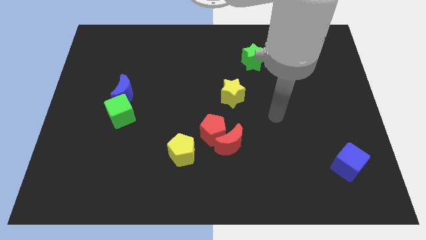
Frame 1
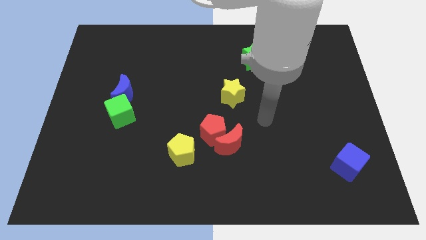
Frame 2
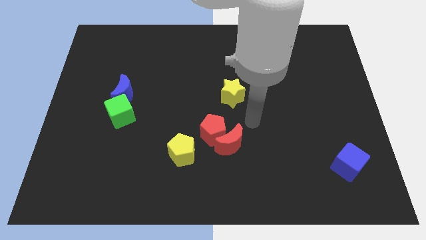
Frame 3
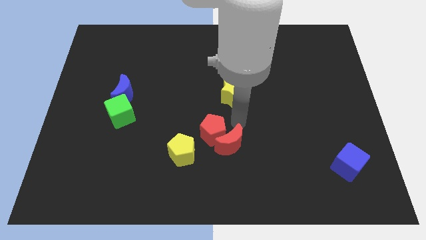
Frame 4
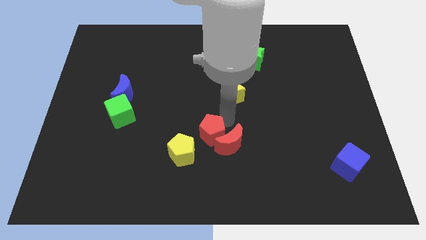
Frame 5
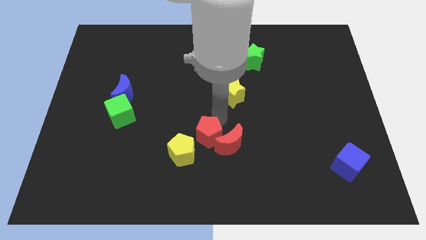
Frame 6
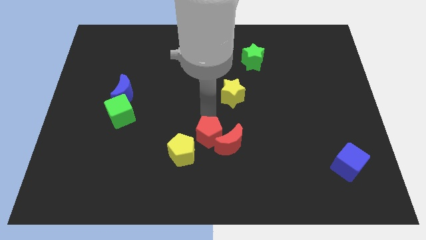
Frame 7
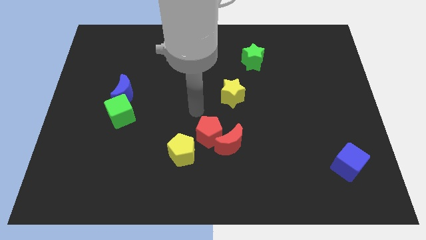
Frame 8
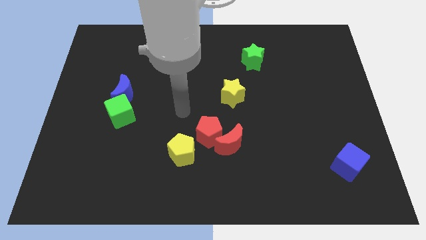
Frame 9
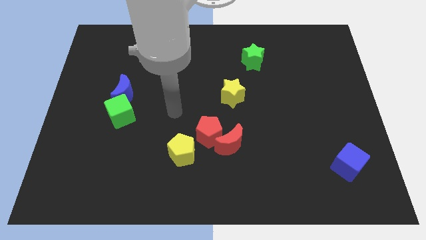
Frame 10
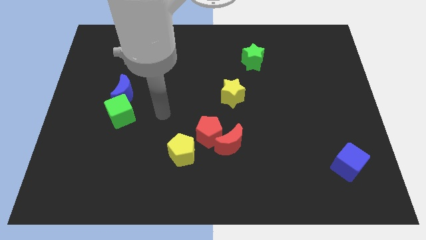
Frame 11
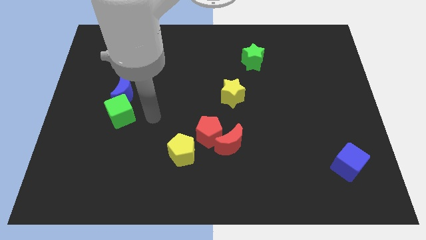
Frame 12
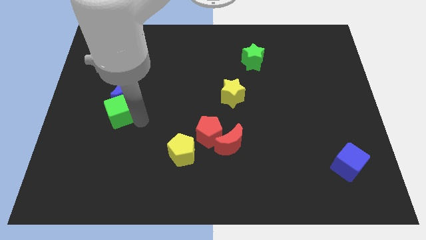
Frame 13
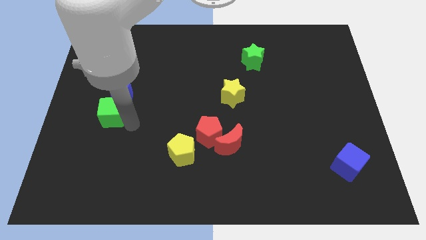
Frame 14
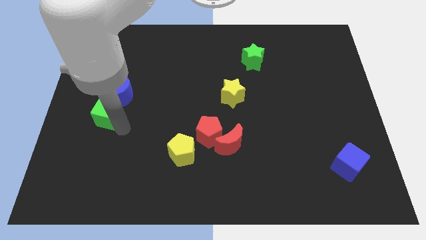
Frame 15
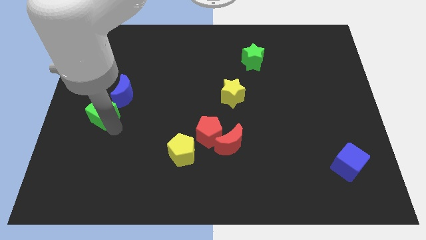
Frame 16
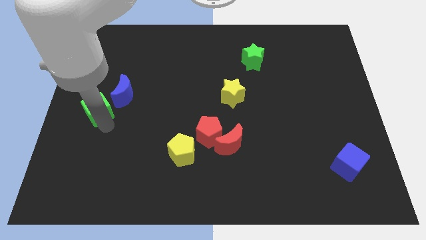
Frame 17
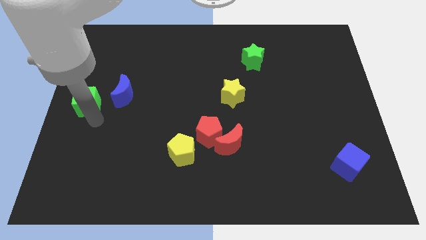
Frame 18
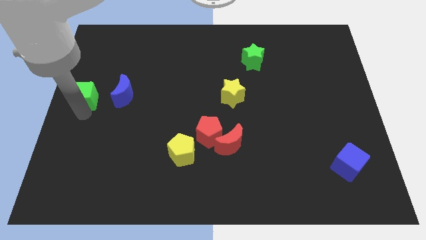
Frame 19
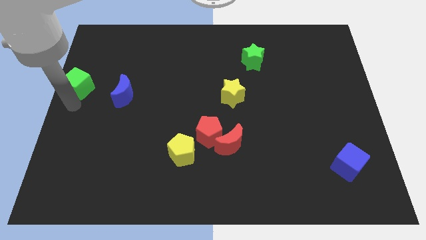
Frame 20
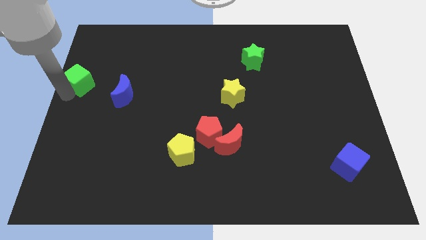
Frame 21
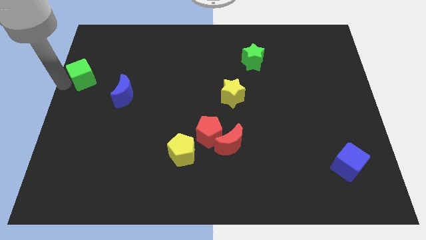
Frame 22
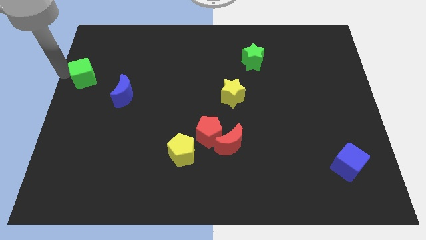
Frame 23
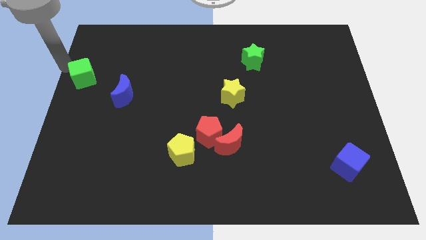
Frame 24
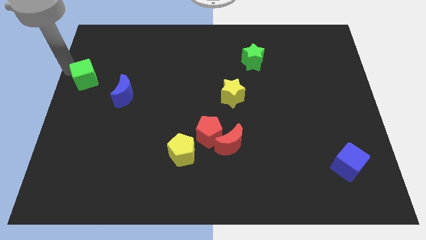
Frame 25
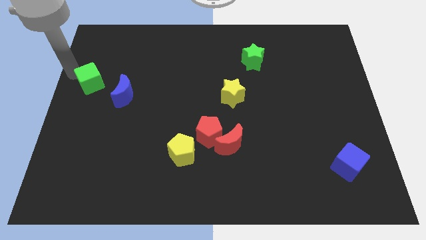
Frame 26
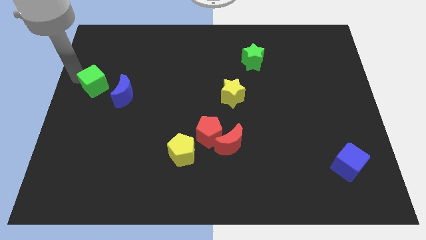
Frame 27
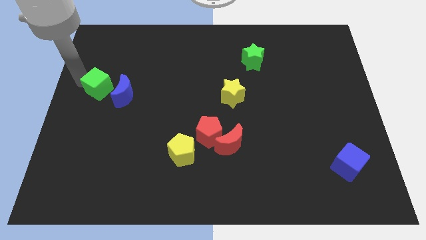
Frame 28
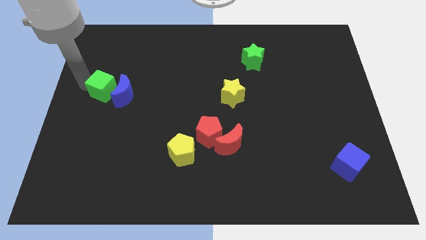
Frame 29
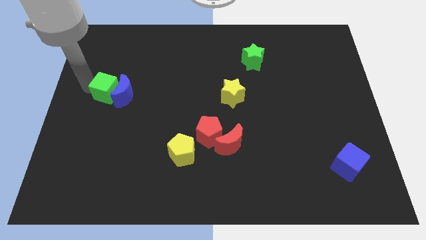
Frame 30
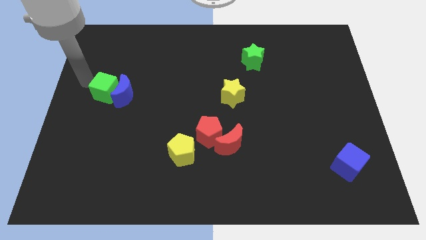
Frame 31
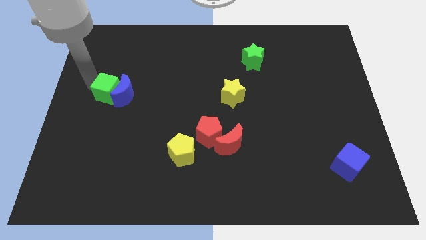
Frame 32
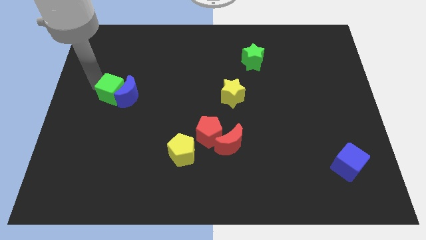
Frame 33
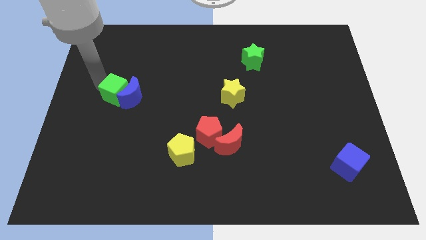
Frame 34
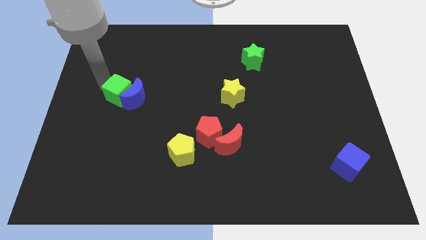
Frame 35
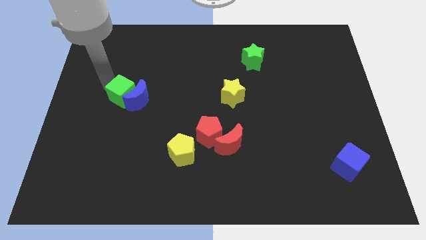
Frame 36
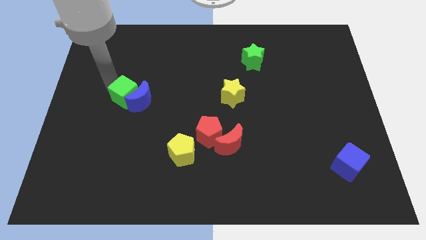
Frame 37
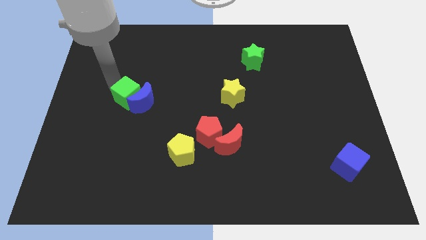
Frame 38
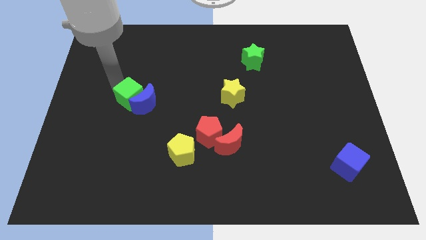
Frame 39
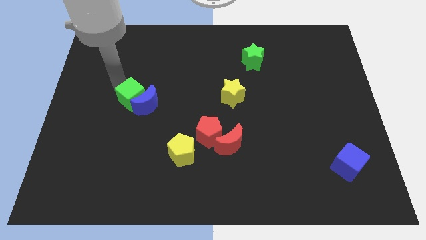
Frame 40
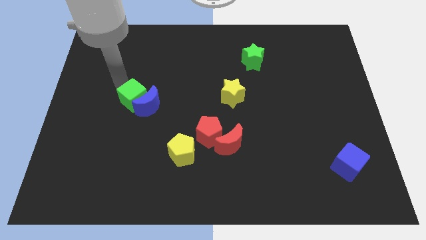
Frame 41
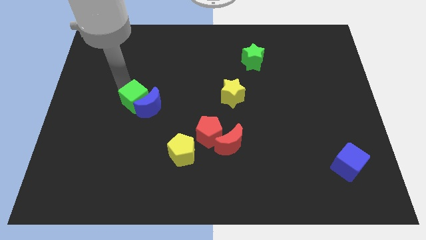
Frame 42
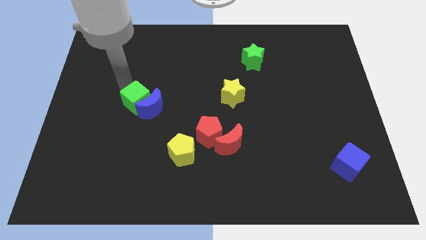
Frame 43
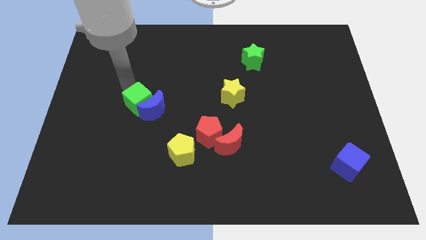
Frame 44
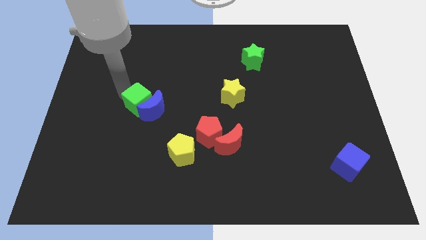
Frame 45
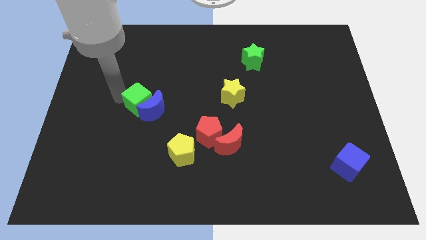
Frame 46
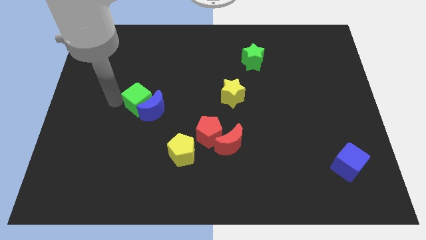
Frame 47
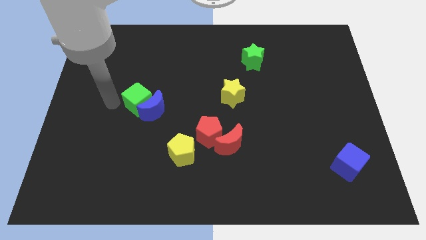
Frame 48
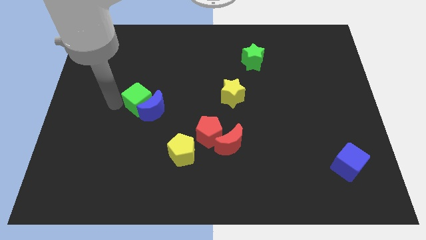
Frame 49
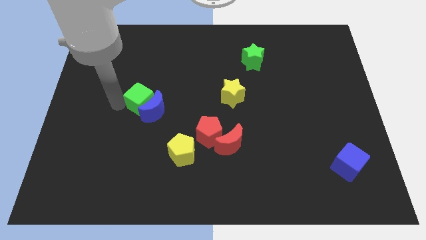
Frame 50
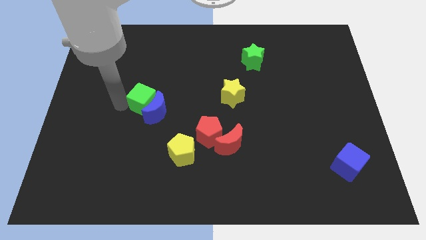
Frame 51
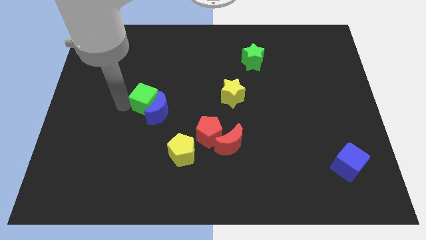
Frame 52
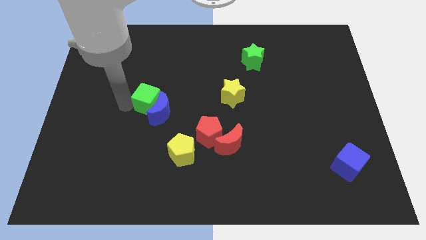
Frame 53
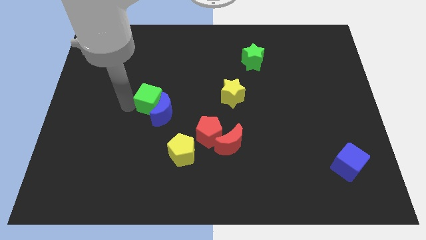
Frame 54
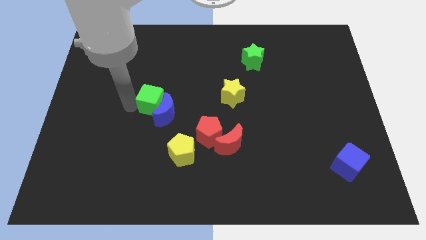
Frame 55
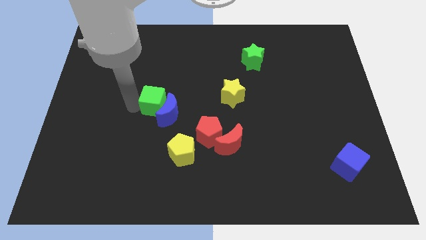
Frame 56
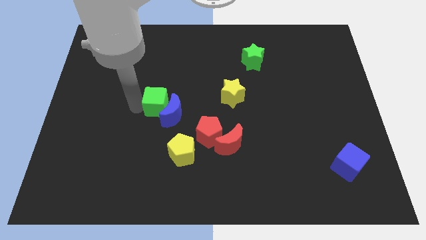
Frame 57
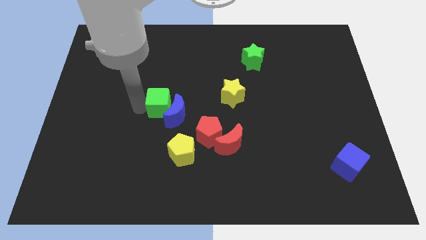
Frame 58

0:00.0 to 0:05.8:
slide the green cube to the middle

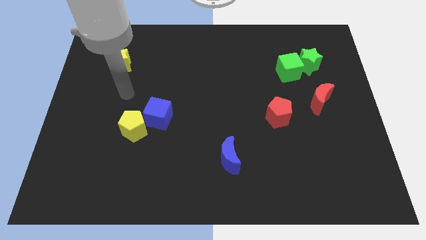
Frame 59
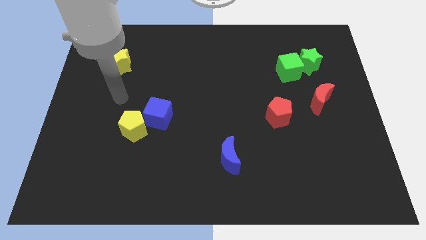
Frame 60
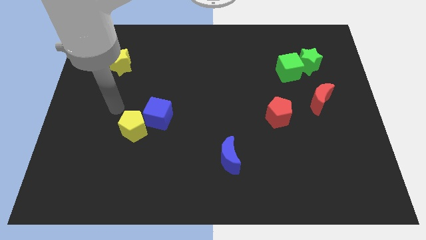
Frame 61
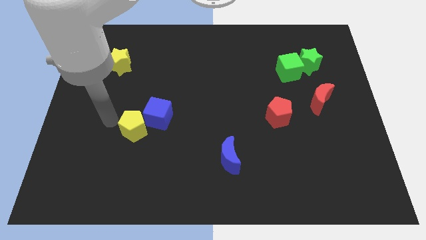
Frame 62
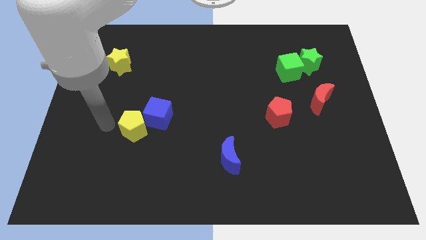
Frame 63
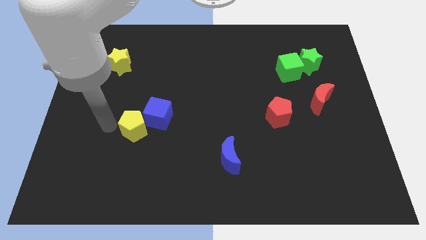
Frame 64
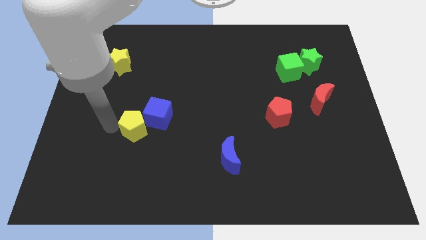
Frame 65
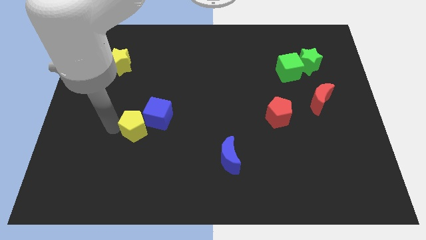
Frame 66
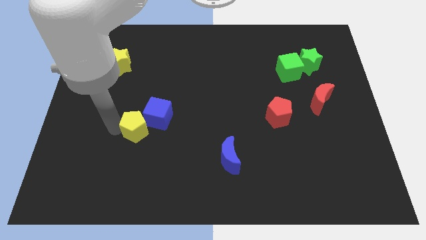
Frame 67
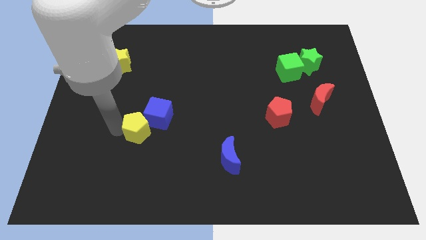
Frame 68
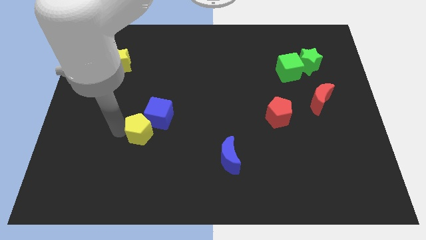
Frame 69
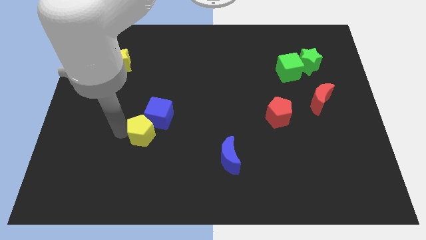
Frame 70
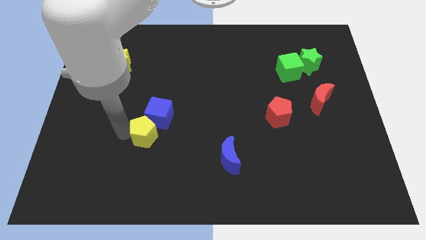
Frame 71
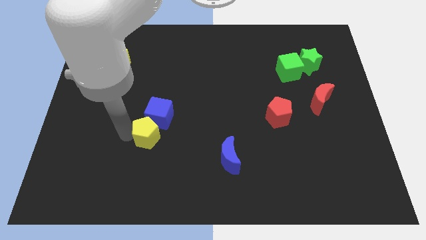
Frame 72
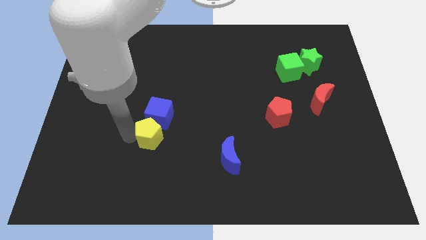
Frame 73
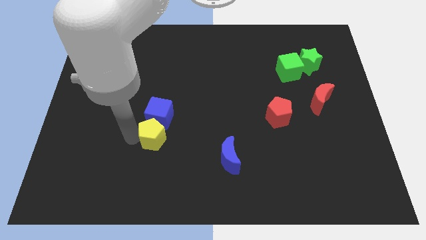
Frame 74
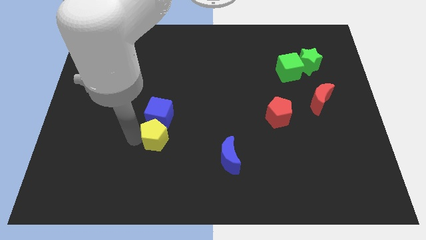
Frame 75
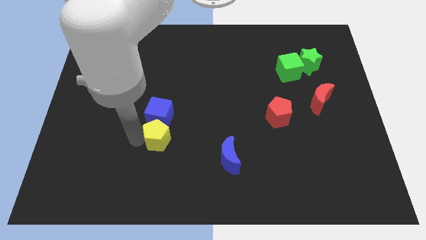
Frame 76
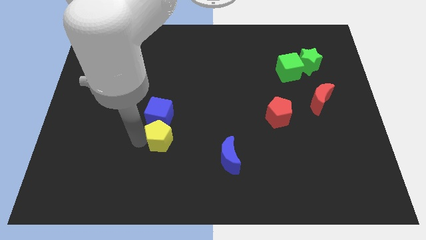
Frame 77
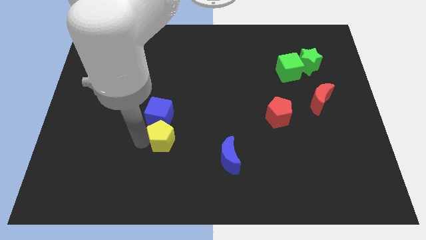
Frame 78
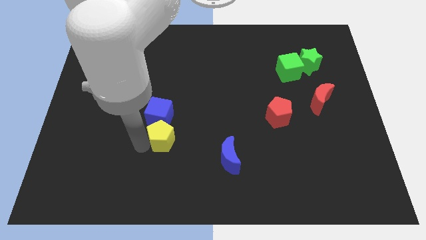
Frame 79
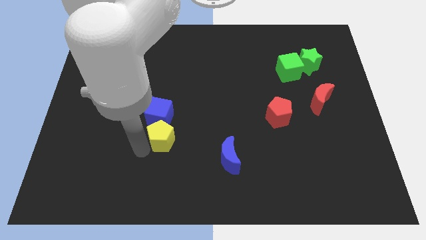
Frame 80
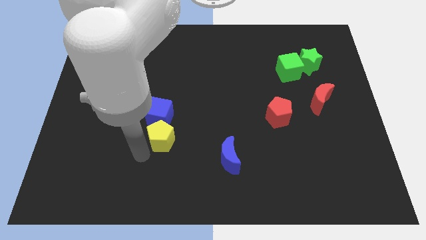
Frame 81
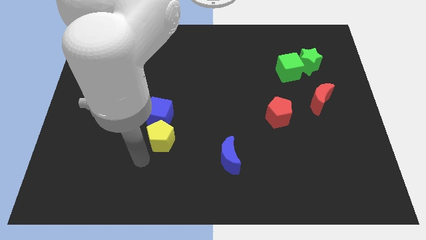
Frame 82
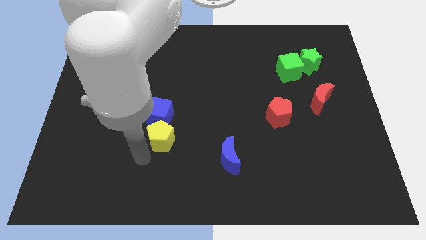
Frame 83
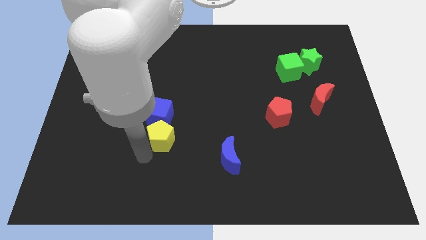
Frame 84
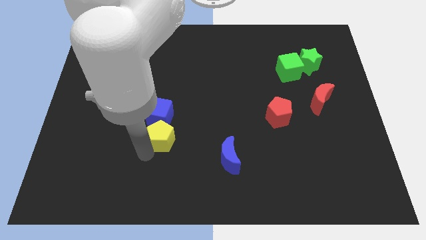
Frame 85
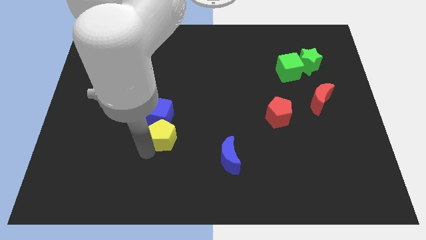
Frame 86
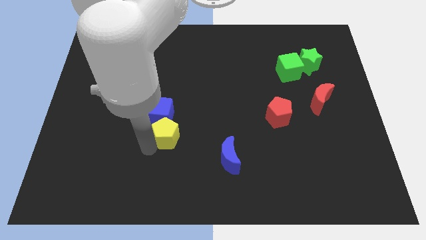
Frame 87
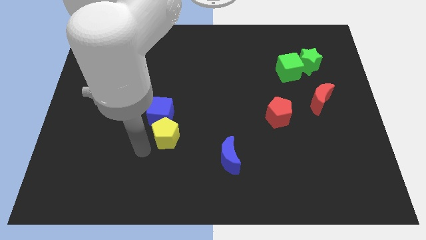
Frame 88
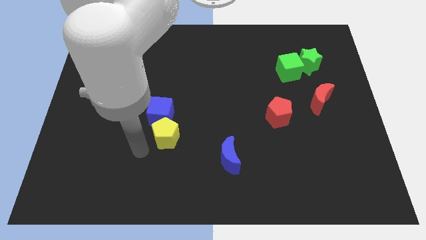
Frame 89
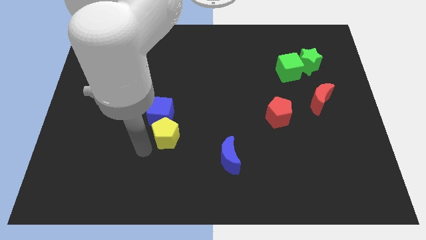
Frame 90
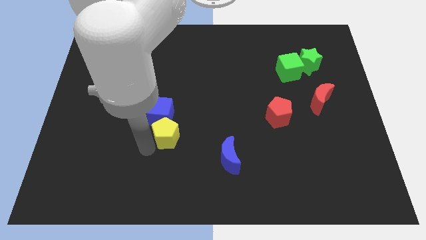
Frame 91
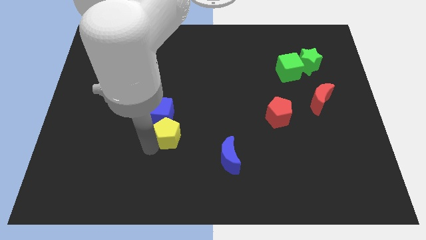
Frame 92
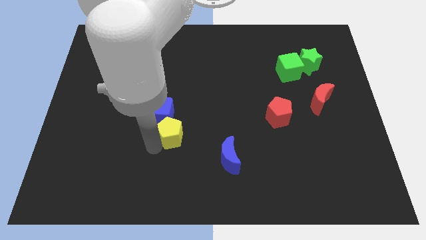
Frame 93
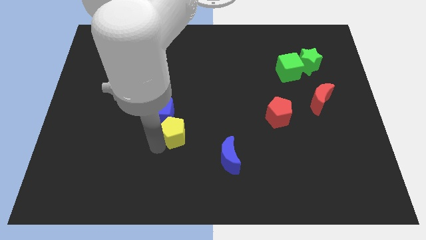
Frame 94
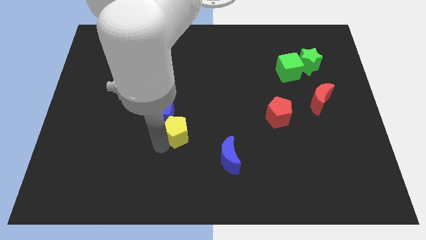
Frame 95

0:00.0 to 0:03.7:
move the yellow pentagon to the center of the board
